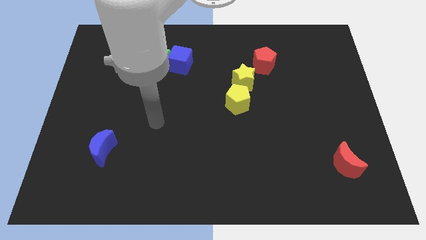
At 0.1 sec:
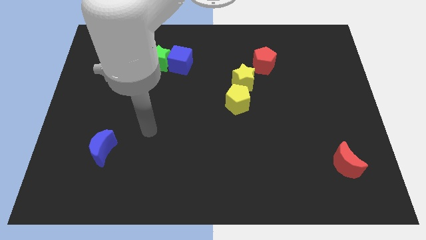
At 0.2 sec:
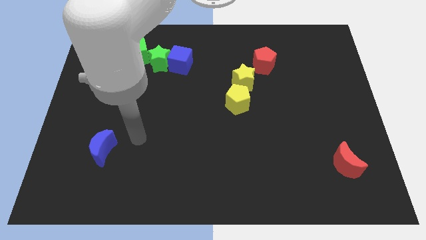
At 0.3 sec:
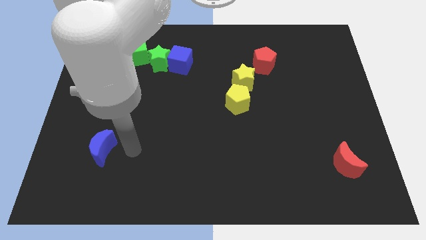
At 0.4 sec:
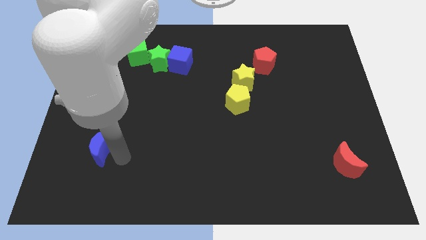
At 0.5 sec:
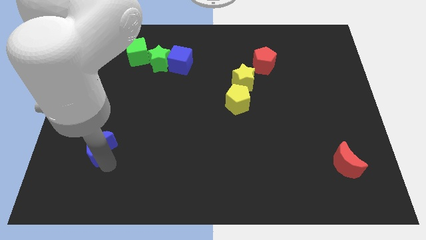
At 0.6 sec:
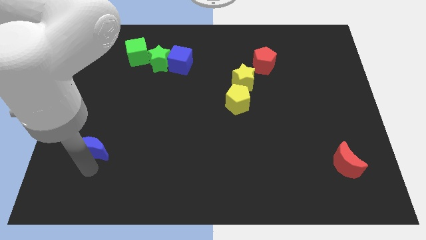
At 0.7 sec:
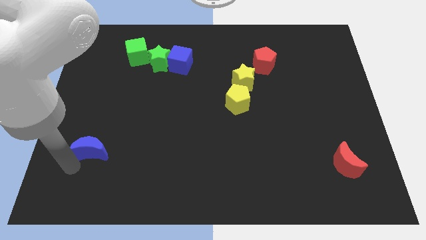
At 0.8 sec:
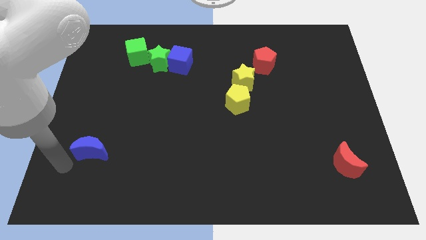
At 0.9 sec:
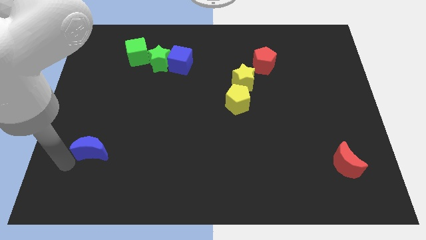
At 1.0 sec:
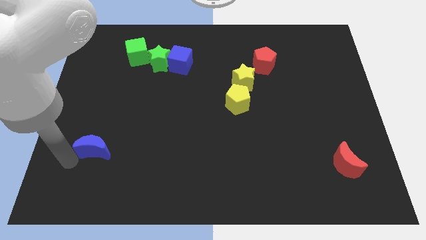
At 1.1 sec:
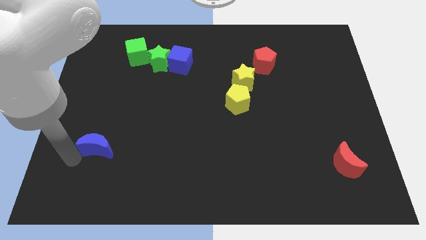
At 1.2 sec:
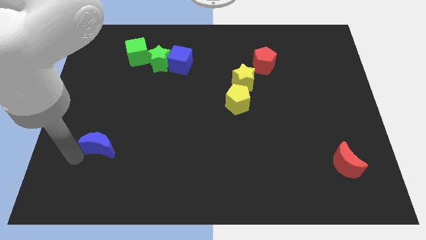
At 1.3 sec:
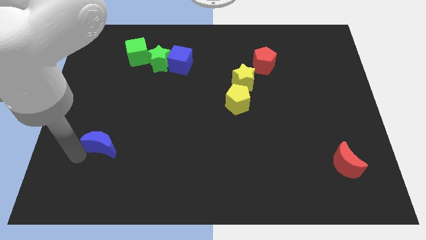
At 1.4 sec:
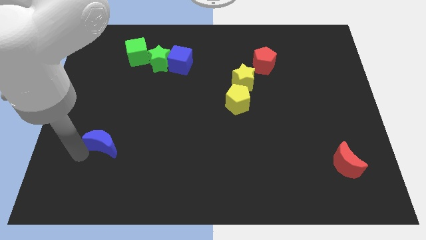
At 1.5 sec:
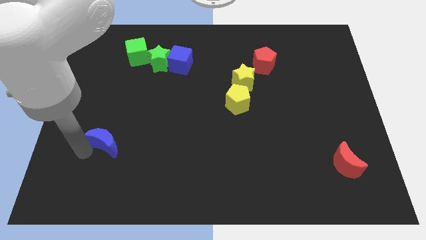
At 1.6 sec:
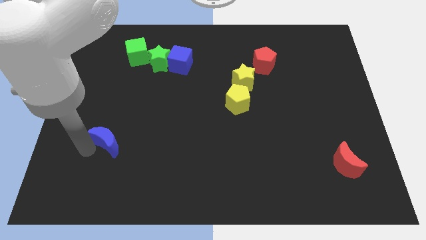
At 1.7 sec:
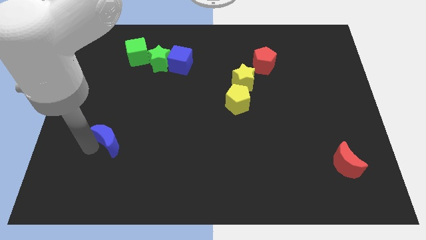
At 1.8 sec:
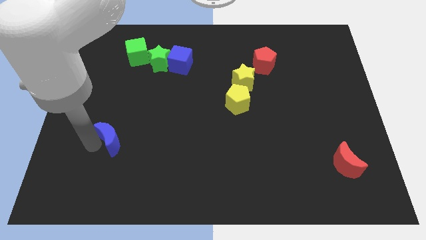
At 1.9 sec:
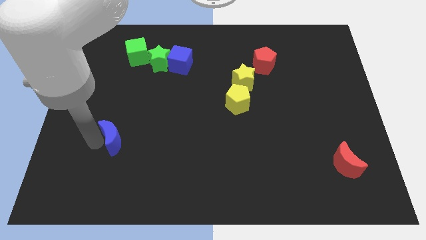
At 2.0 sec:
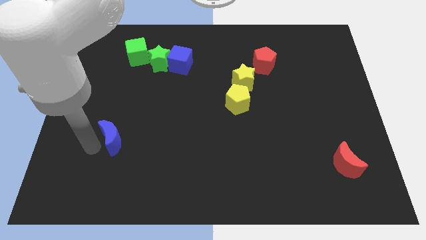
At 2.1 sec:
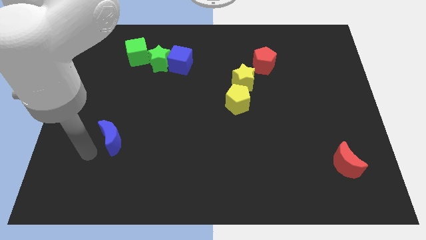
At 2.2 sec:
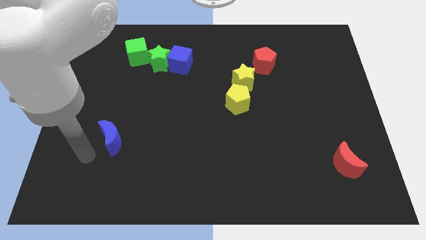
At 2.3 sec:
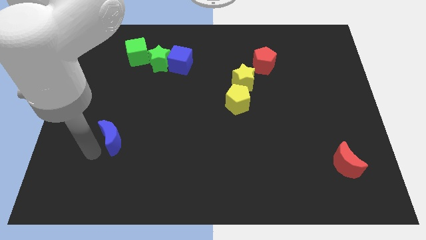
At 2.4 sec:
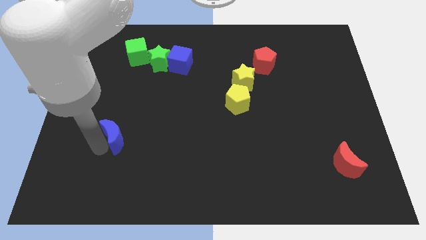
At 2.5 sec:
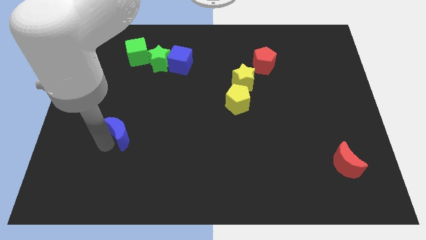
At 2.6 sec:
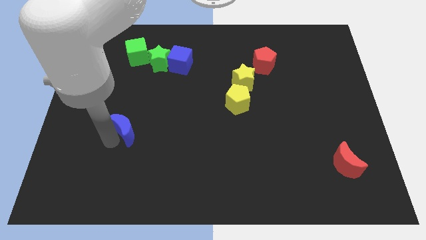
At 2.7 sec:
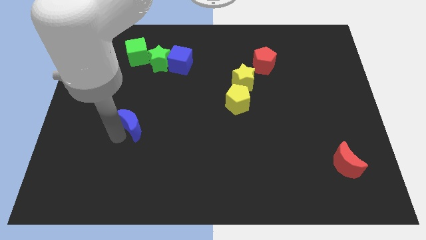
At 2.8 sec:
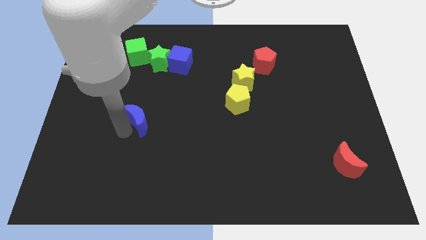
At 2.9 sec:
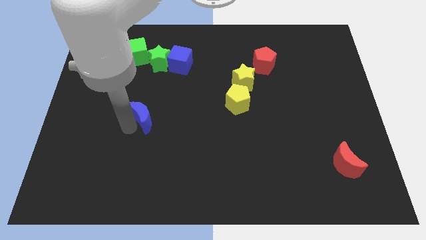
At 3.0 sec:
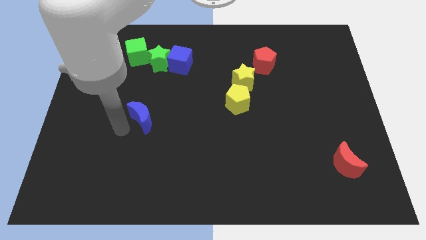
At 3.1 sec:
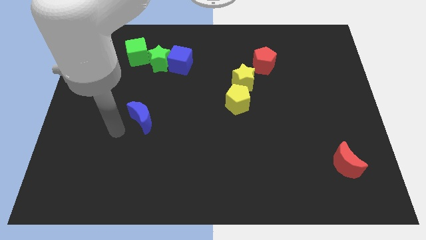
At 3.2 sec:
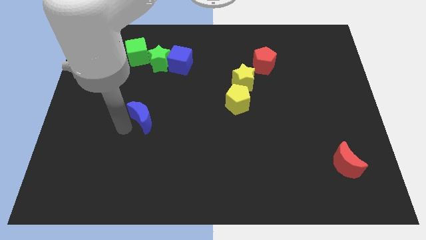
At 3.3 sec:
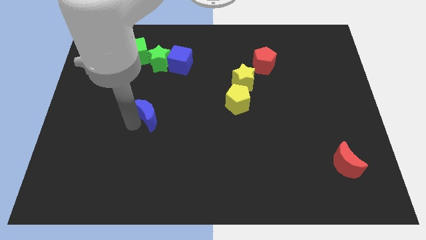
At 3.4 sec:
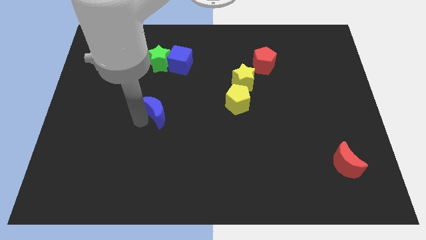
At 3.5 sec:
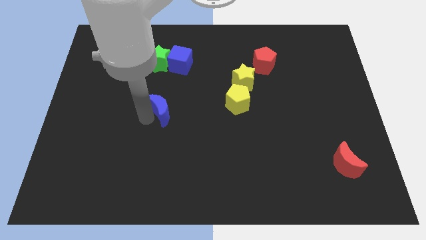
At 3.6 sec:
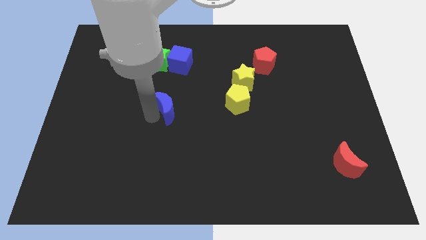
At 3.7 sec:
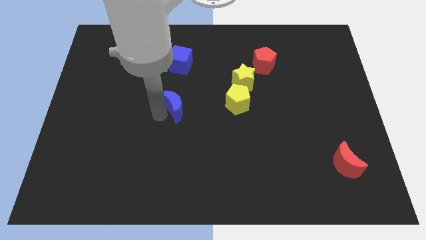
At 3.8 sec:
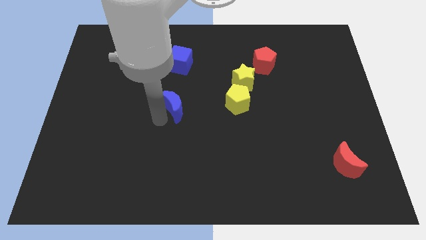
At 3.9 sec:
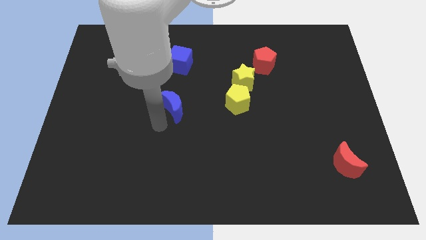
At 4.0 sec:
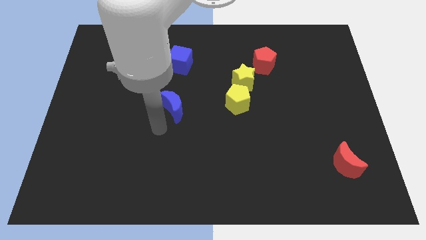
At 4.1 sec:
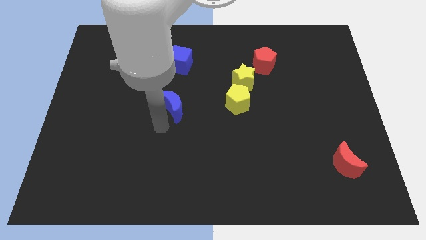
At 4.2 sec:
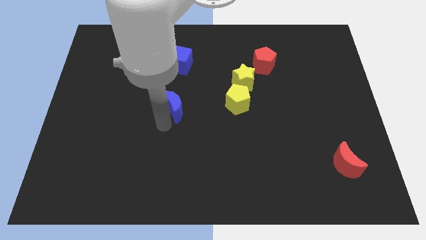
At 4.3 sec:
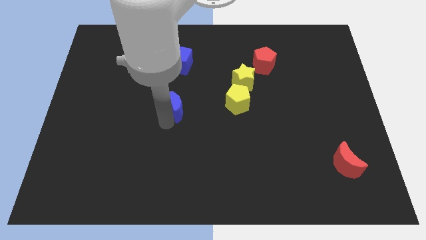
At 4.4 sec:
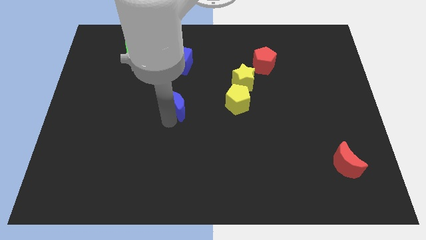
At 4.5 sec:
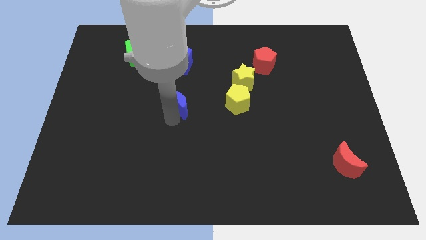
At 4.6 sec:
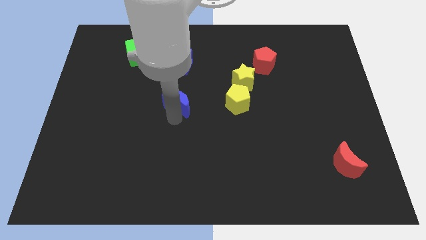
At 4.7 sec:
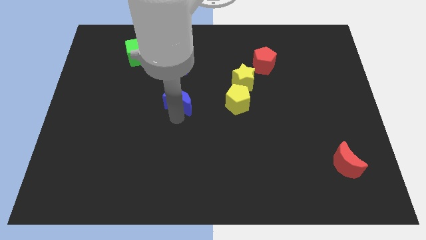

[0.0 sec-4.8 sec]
slide the blue moon diagonally upwards and to the right

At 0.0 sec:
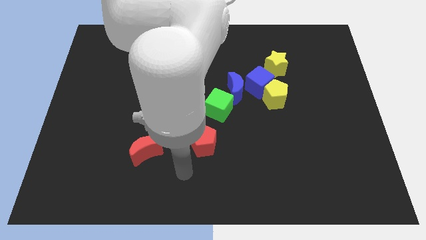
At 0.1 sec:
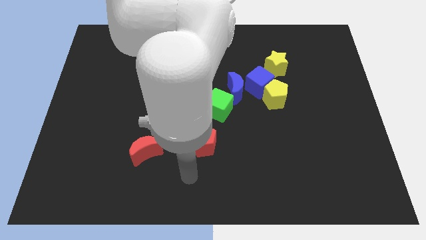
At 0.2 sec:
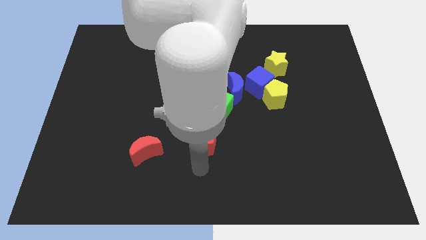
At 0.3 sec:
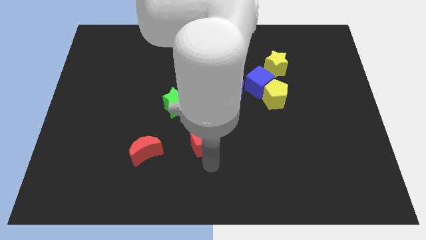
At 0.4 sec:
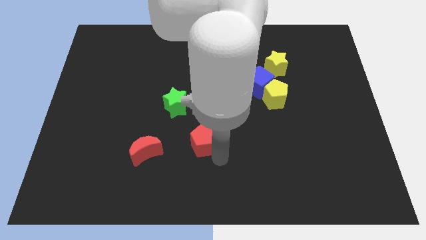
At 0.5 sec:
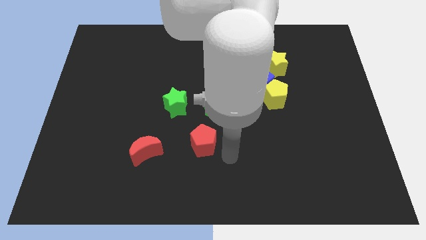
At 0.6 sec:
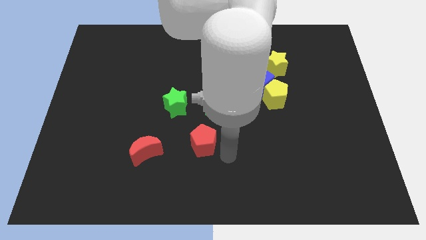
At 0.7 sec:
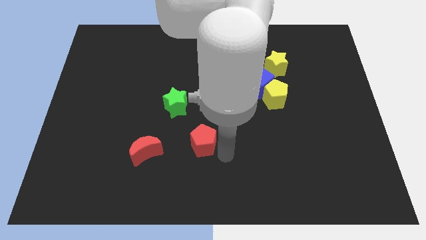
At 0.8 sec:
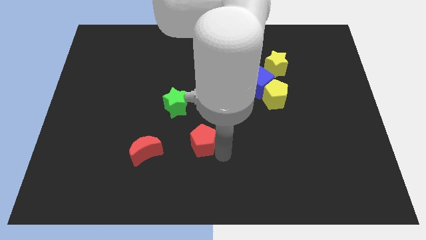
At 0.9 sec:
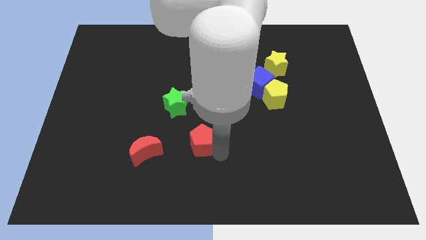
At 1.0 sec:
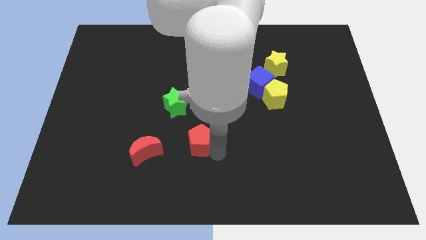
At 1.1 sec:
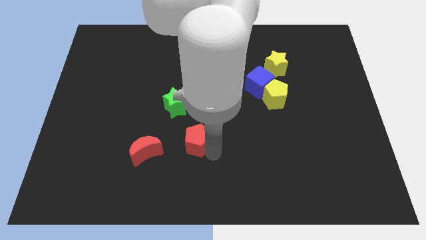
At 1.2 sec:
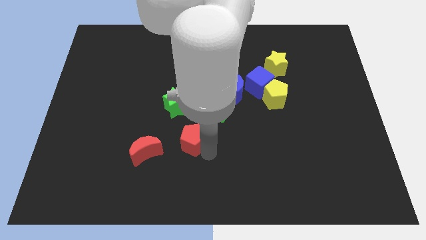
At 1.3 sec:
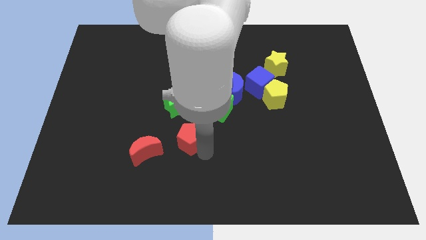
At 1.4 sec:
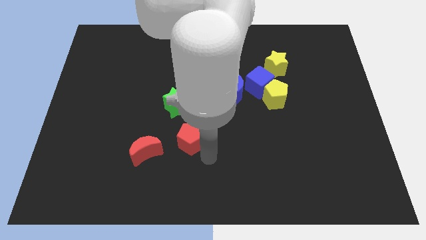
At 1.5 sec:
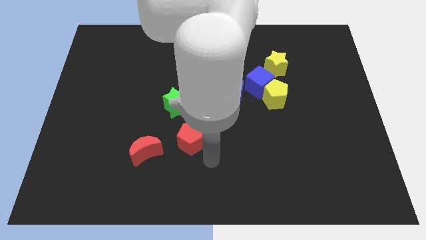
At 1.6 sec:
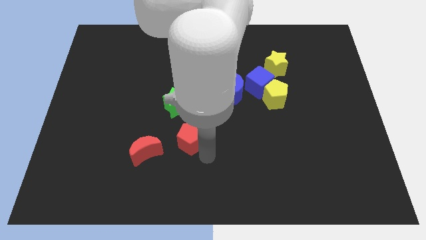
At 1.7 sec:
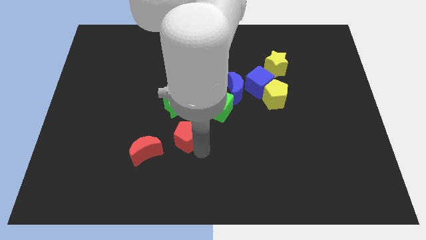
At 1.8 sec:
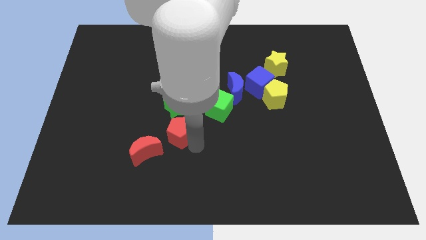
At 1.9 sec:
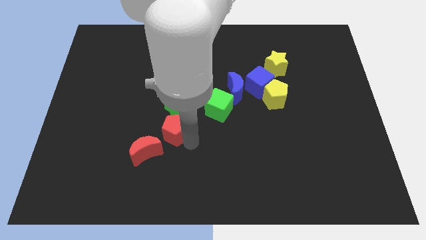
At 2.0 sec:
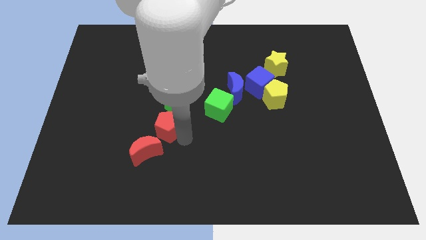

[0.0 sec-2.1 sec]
slightly move the red pentagon upwards and then to the left

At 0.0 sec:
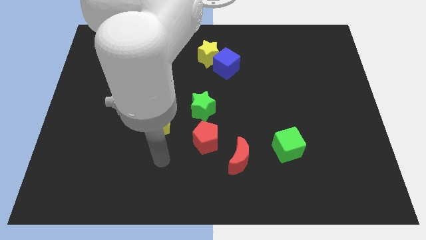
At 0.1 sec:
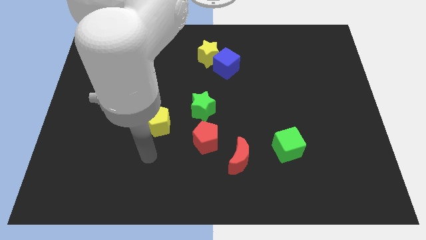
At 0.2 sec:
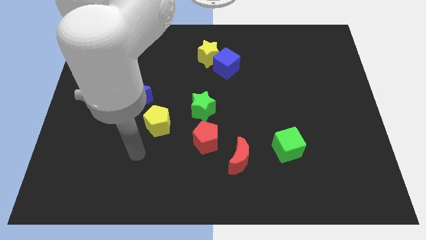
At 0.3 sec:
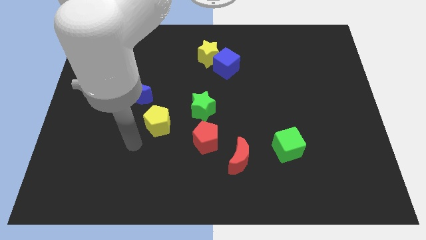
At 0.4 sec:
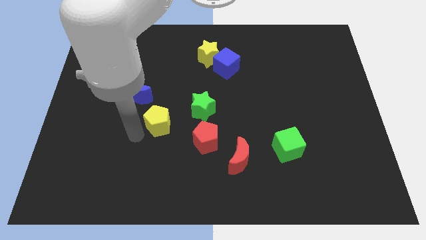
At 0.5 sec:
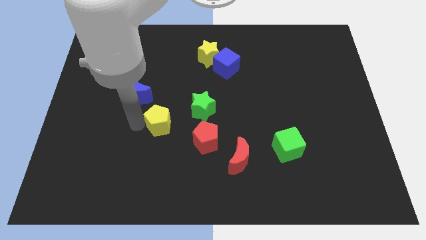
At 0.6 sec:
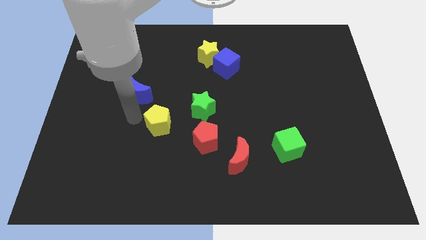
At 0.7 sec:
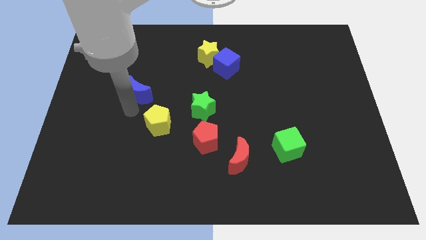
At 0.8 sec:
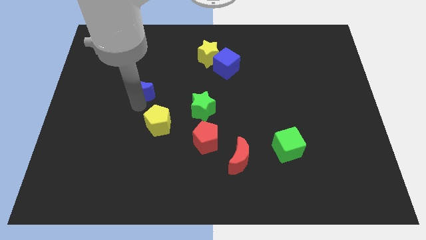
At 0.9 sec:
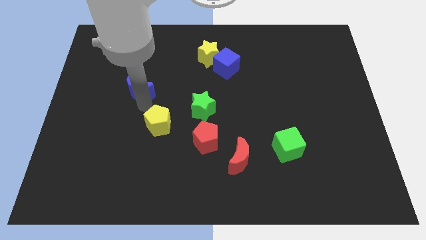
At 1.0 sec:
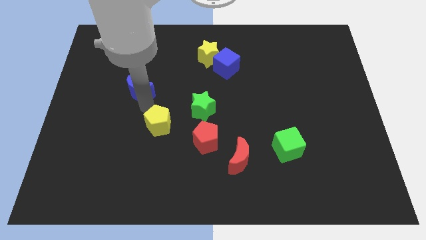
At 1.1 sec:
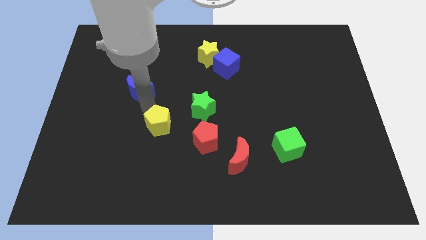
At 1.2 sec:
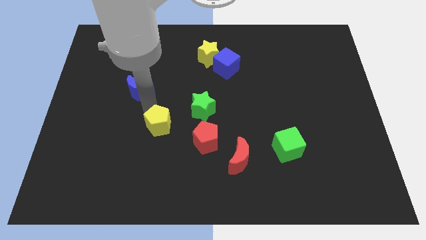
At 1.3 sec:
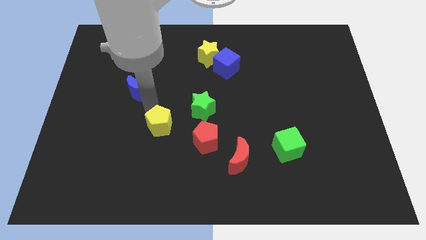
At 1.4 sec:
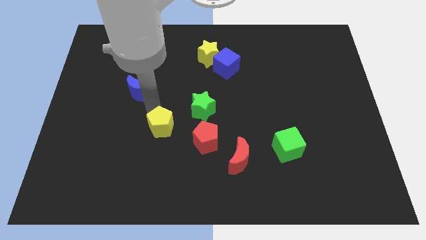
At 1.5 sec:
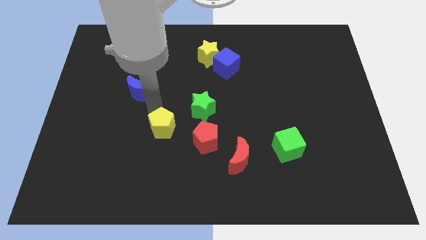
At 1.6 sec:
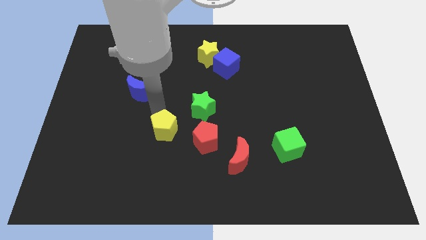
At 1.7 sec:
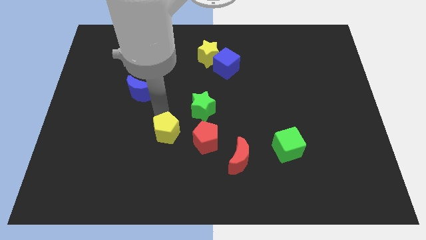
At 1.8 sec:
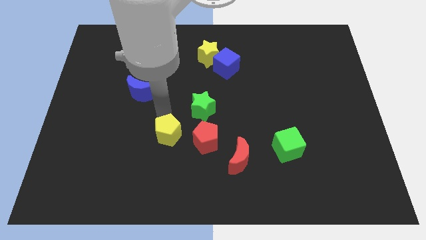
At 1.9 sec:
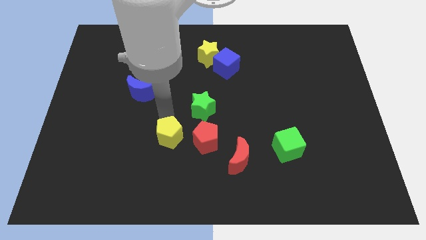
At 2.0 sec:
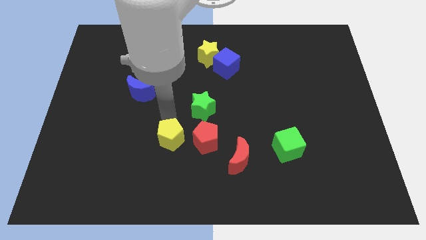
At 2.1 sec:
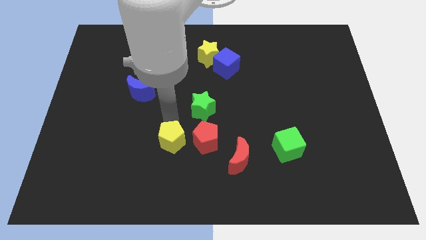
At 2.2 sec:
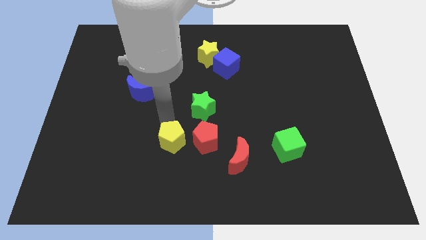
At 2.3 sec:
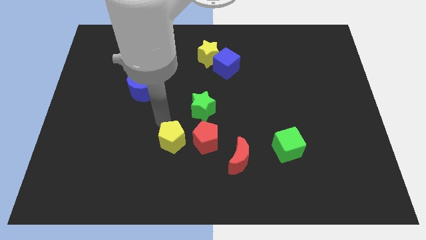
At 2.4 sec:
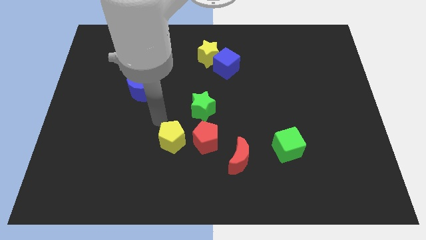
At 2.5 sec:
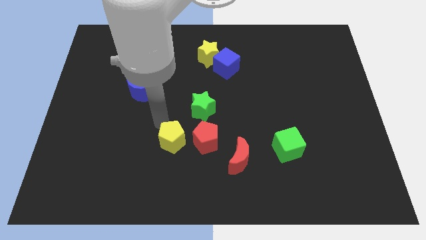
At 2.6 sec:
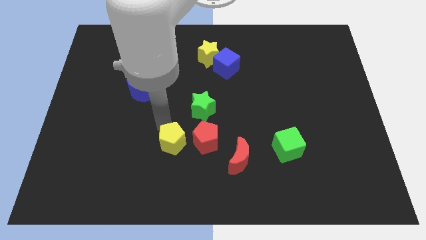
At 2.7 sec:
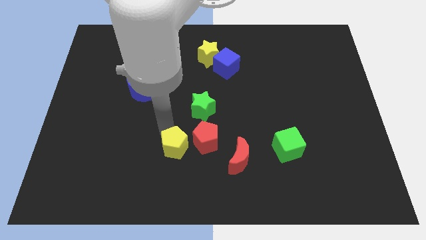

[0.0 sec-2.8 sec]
move the yellow pentagon down and then right a little bit
